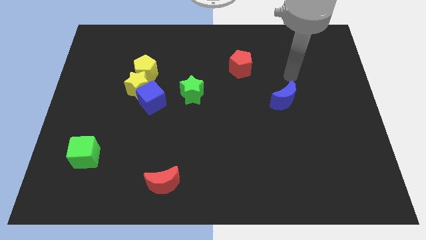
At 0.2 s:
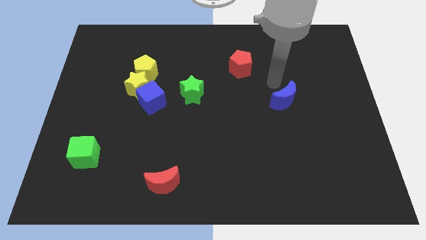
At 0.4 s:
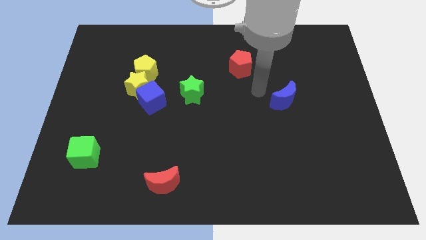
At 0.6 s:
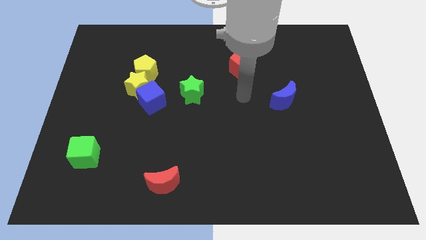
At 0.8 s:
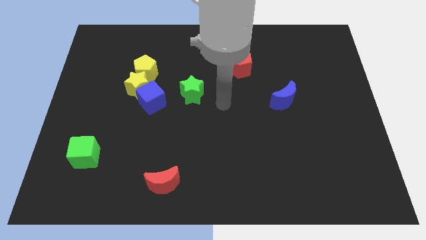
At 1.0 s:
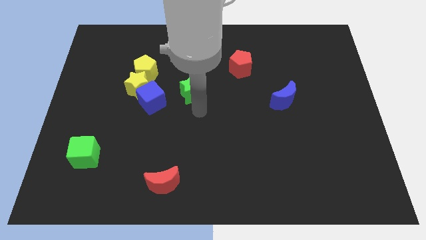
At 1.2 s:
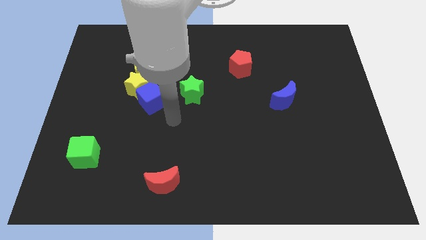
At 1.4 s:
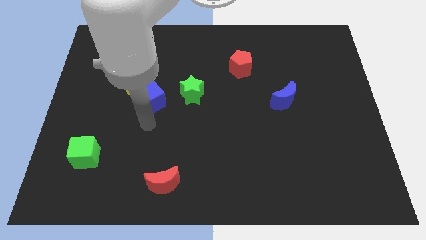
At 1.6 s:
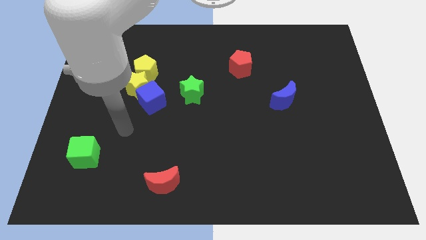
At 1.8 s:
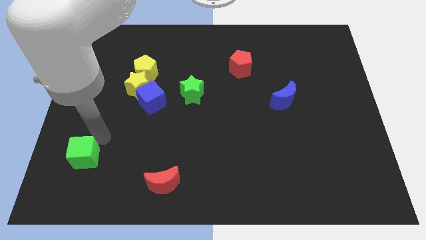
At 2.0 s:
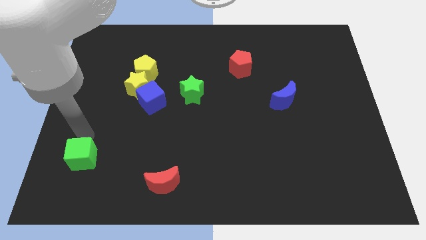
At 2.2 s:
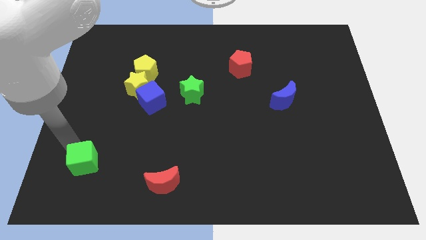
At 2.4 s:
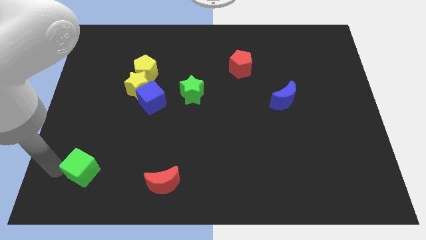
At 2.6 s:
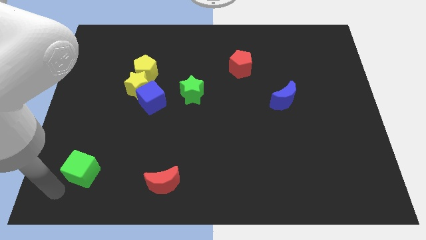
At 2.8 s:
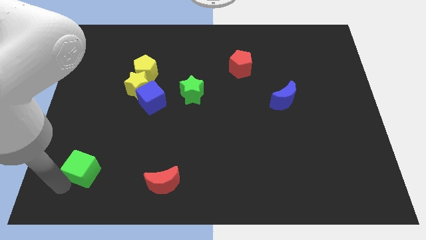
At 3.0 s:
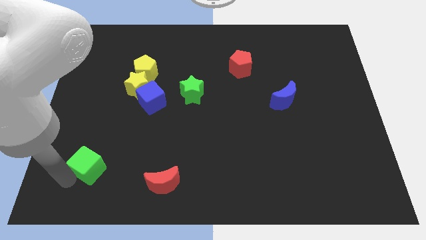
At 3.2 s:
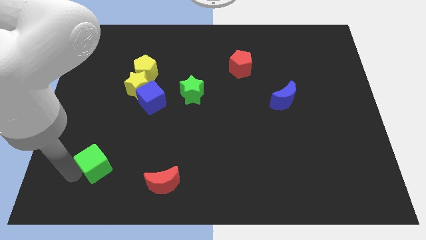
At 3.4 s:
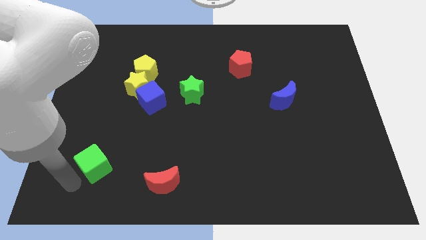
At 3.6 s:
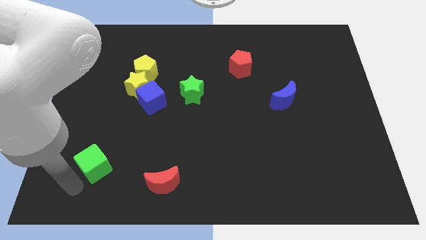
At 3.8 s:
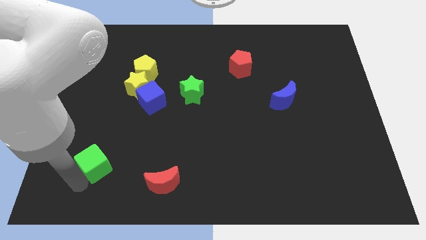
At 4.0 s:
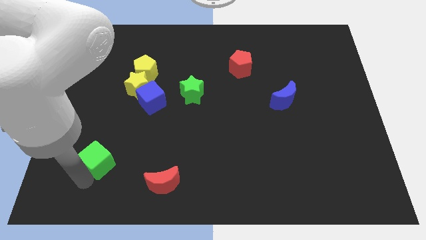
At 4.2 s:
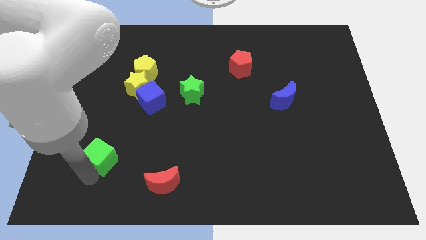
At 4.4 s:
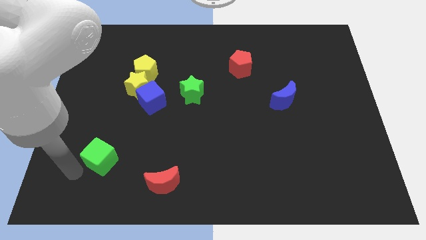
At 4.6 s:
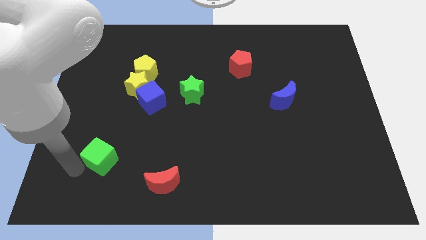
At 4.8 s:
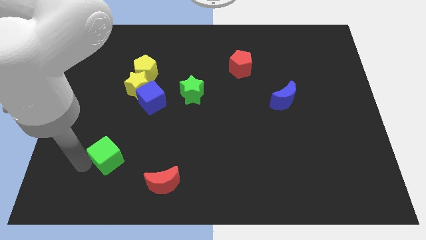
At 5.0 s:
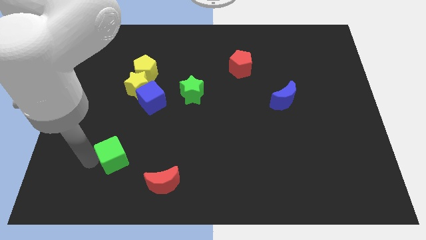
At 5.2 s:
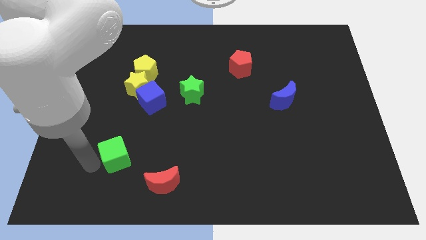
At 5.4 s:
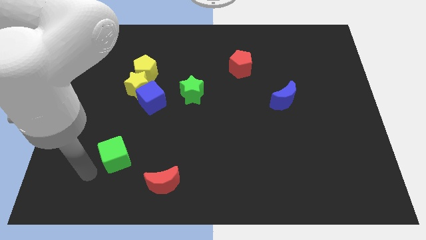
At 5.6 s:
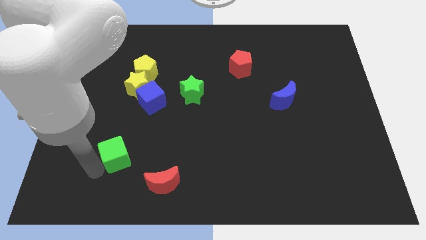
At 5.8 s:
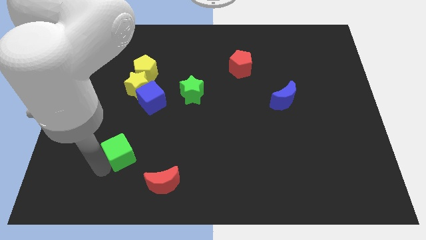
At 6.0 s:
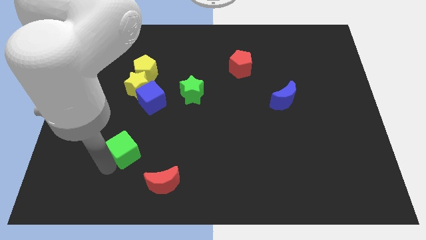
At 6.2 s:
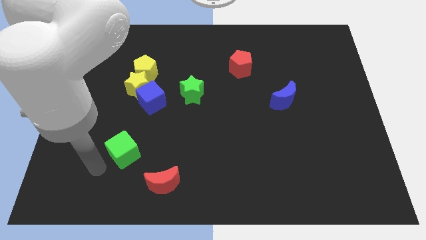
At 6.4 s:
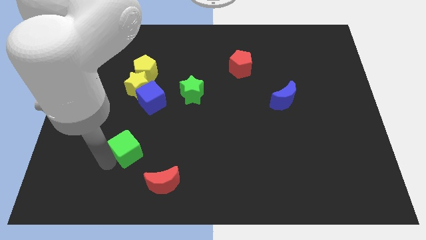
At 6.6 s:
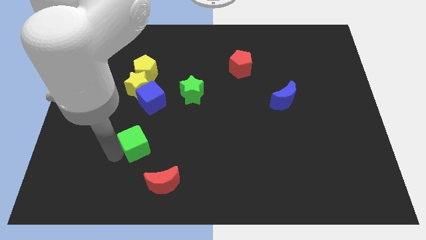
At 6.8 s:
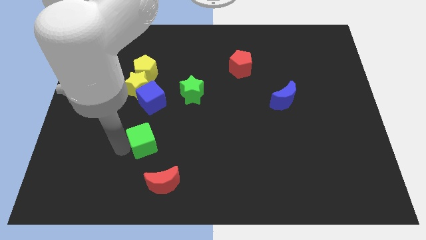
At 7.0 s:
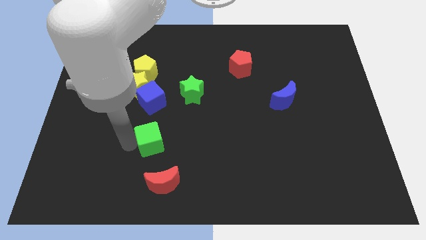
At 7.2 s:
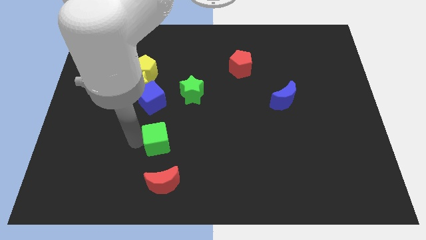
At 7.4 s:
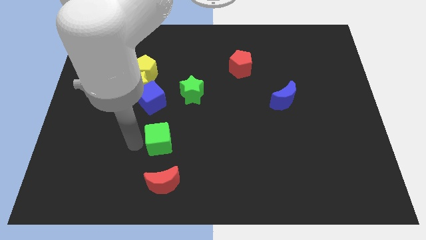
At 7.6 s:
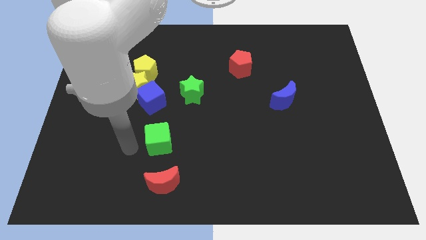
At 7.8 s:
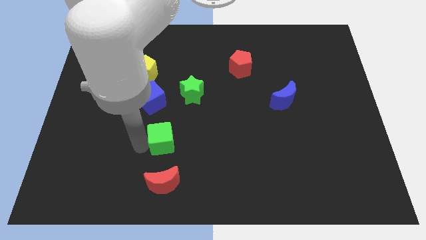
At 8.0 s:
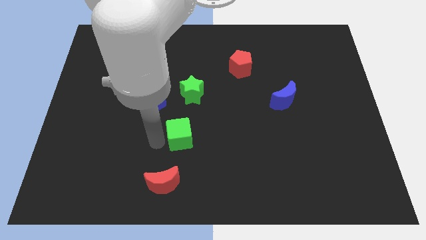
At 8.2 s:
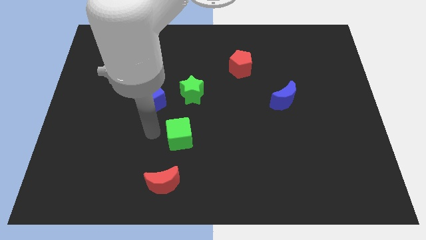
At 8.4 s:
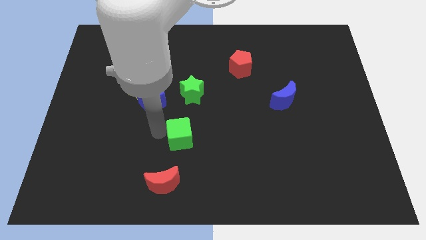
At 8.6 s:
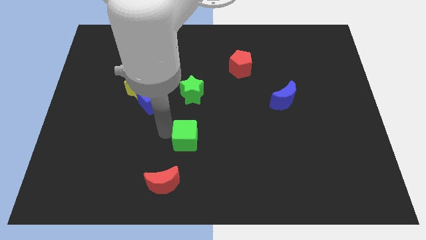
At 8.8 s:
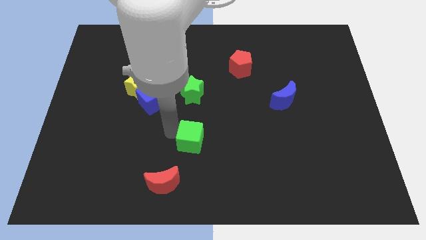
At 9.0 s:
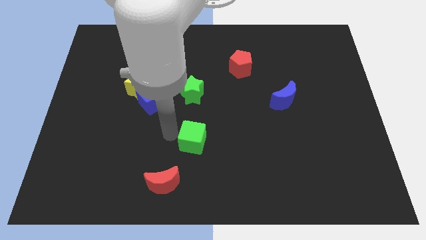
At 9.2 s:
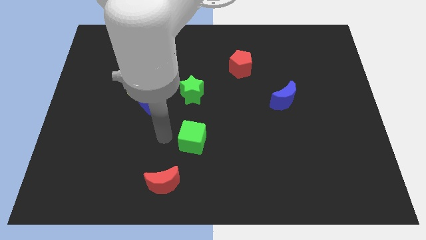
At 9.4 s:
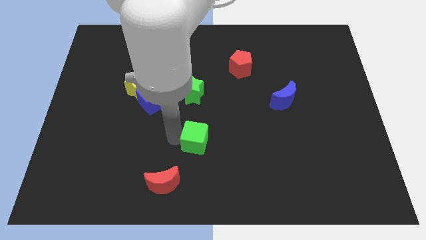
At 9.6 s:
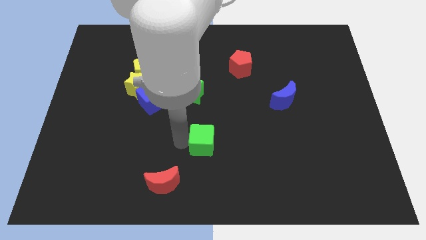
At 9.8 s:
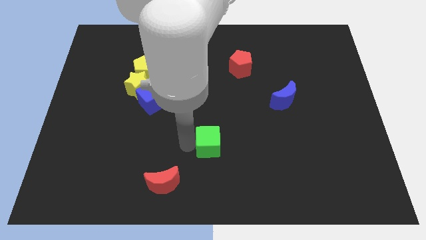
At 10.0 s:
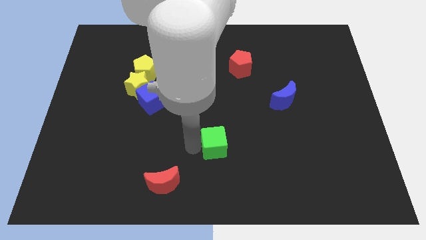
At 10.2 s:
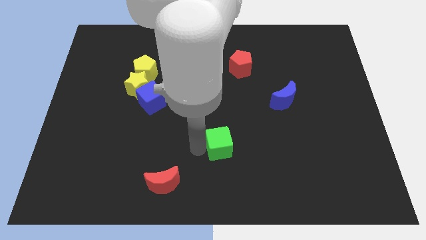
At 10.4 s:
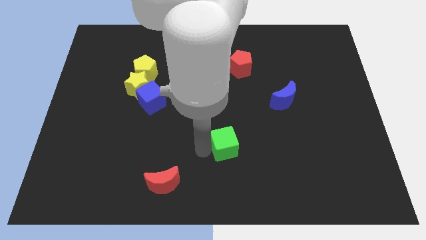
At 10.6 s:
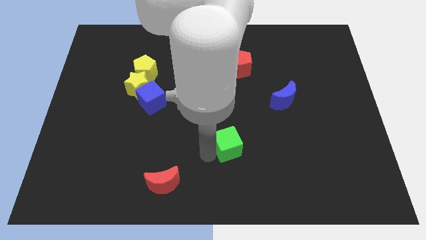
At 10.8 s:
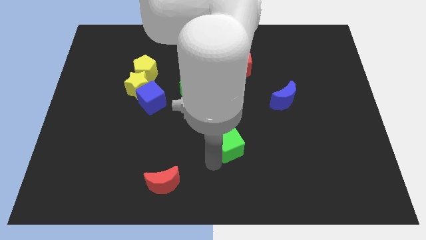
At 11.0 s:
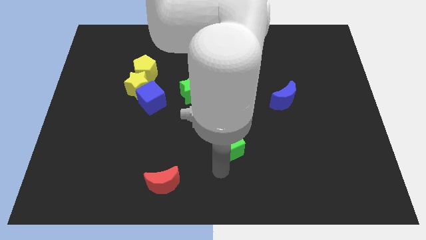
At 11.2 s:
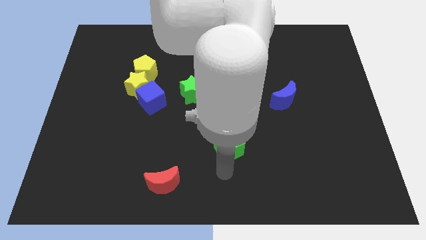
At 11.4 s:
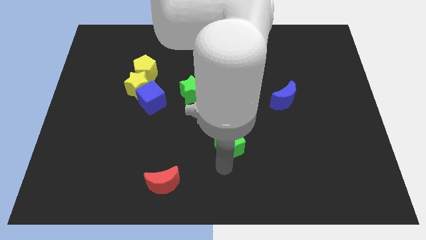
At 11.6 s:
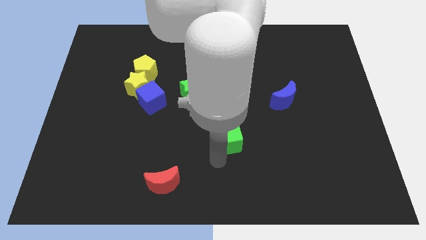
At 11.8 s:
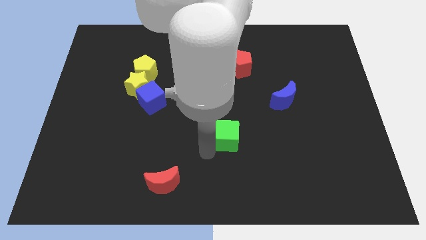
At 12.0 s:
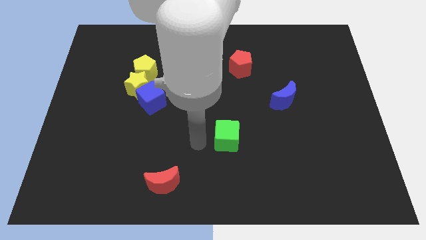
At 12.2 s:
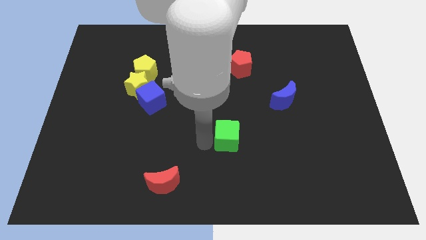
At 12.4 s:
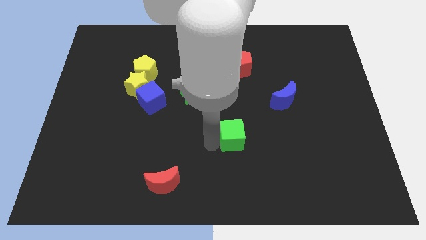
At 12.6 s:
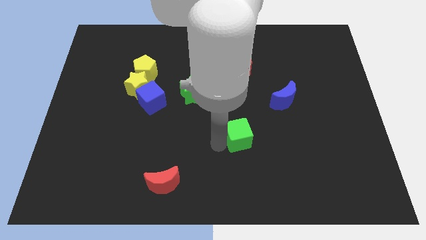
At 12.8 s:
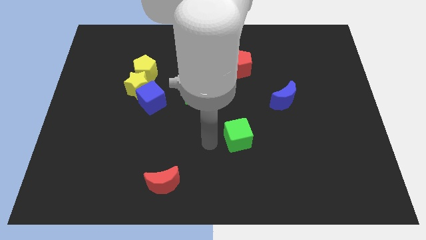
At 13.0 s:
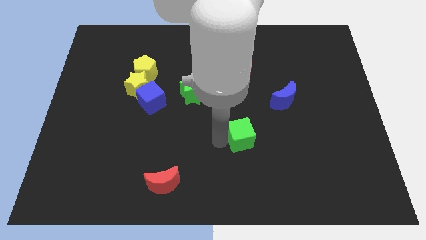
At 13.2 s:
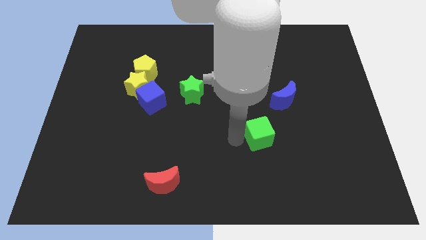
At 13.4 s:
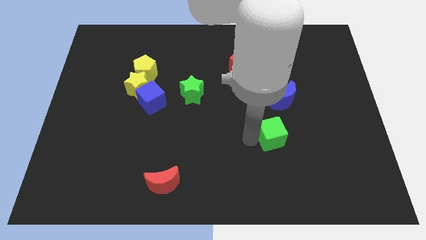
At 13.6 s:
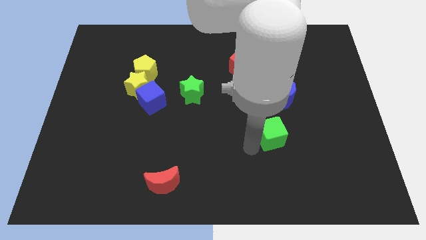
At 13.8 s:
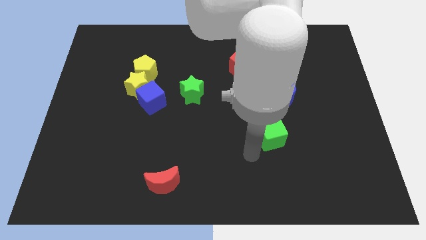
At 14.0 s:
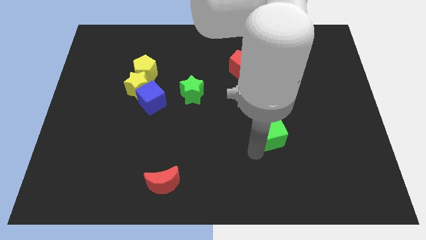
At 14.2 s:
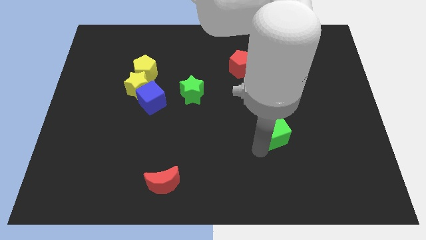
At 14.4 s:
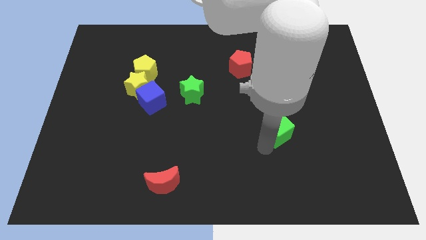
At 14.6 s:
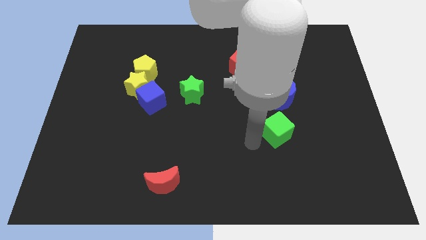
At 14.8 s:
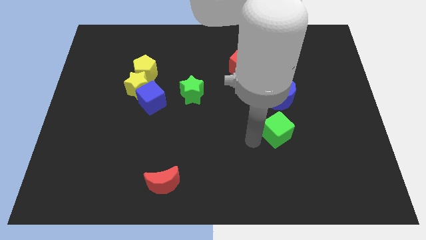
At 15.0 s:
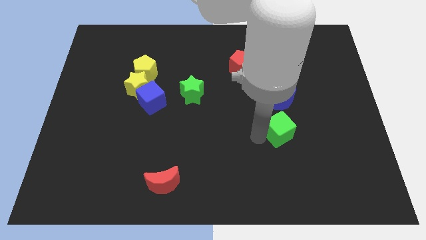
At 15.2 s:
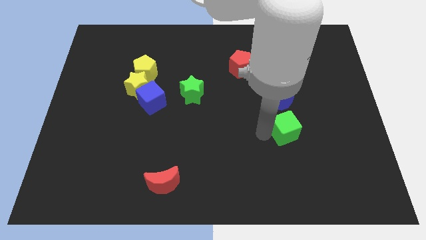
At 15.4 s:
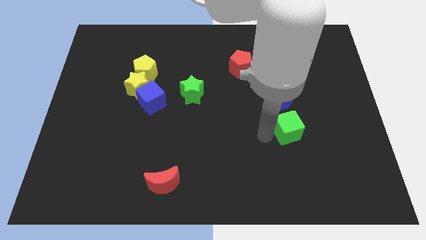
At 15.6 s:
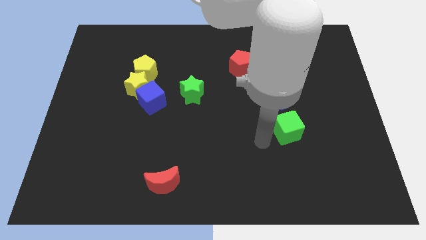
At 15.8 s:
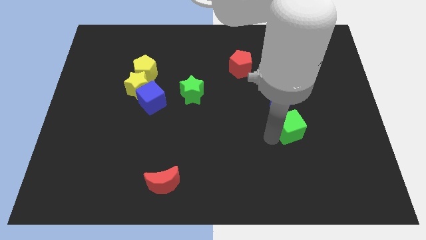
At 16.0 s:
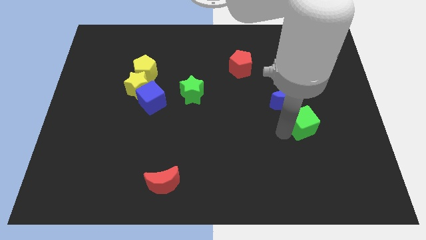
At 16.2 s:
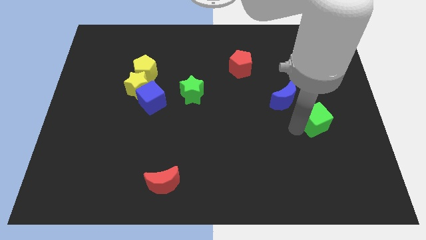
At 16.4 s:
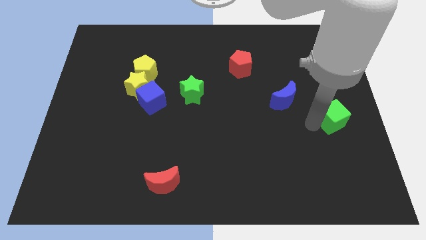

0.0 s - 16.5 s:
push the green cube to the right side
